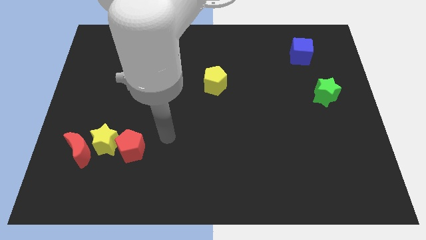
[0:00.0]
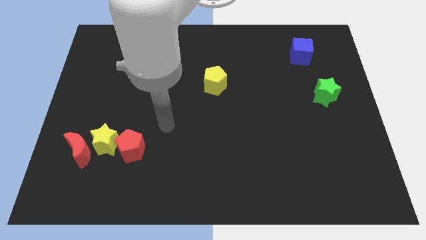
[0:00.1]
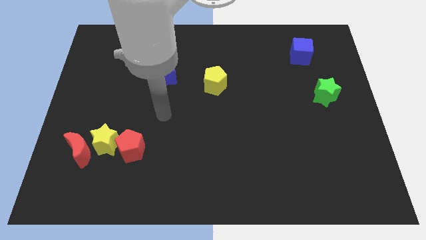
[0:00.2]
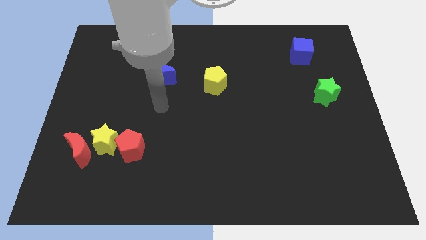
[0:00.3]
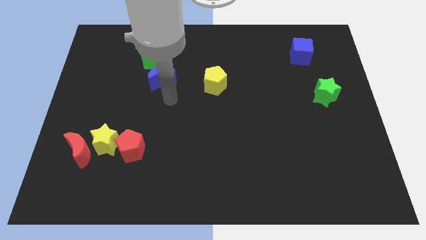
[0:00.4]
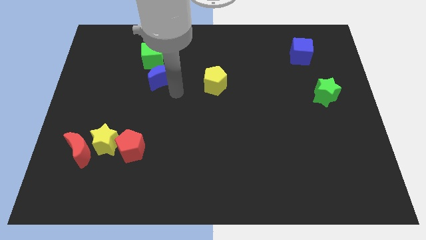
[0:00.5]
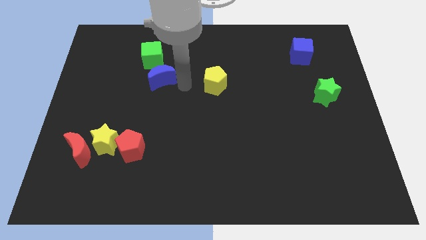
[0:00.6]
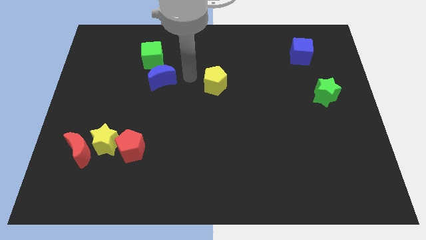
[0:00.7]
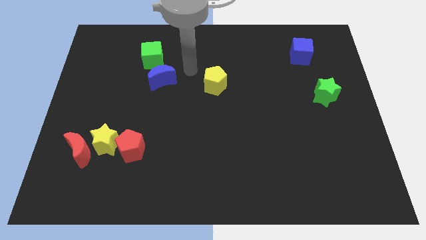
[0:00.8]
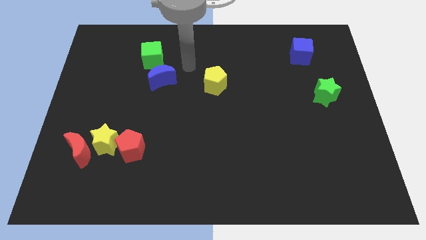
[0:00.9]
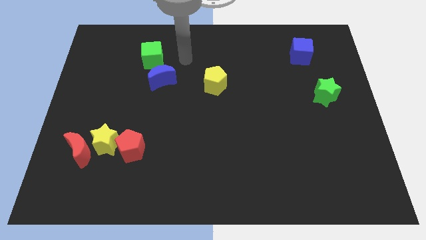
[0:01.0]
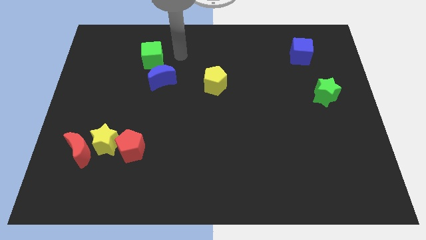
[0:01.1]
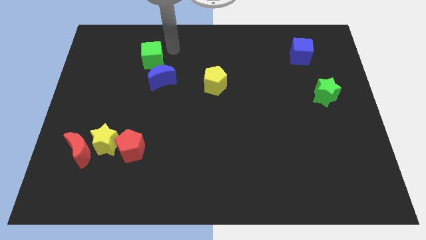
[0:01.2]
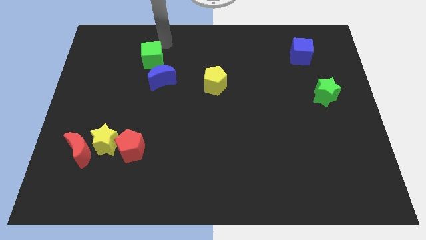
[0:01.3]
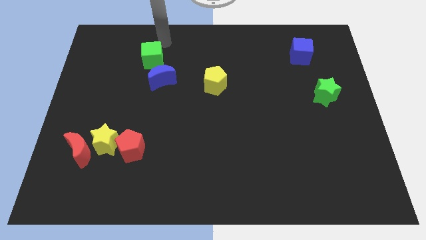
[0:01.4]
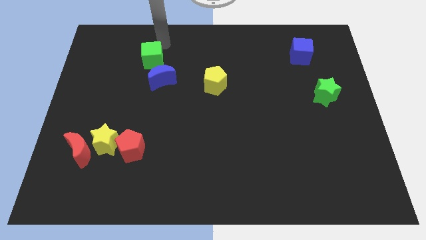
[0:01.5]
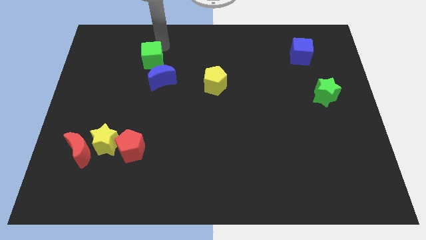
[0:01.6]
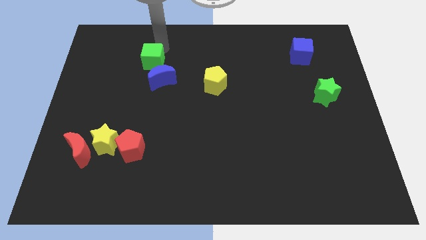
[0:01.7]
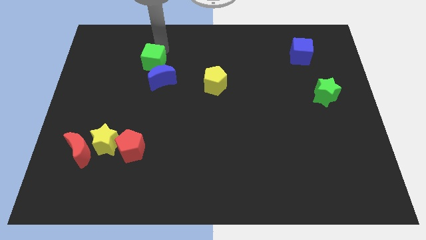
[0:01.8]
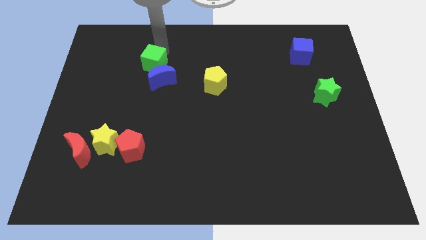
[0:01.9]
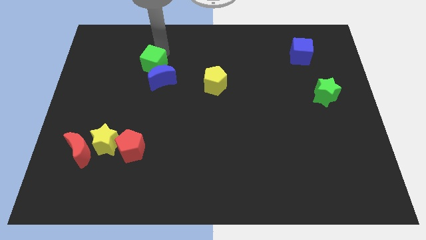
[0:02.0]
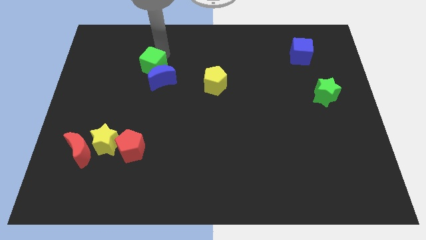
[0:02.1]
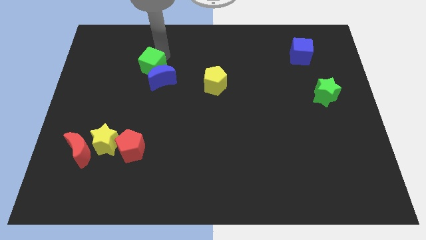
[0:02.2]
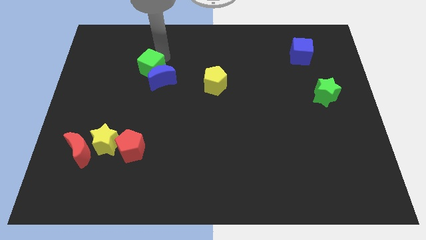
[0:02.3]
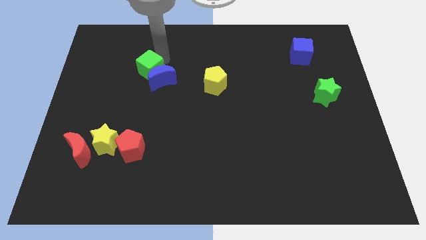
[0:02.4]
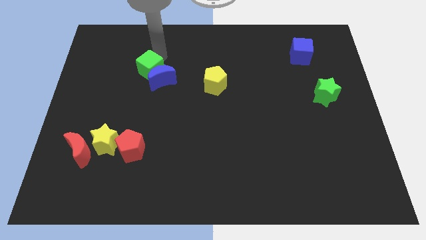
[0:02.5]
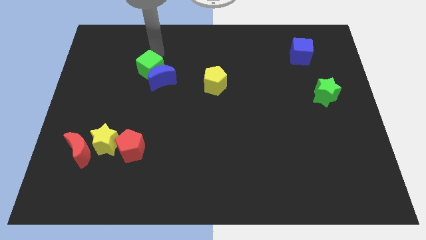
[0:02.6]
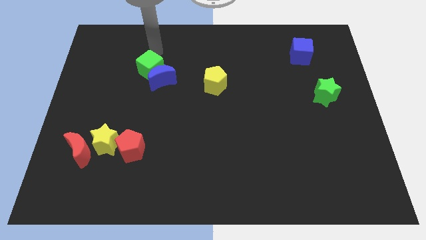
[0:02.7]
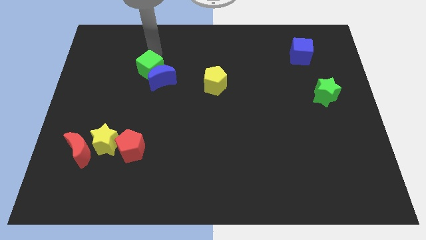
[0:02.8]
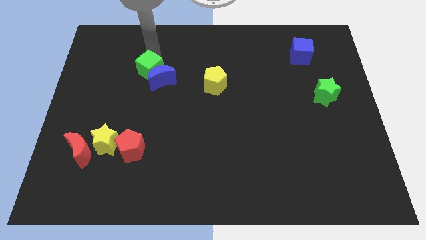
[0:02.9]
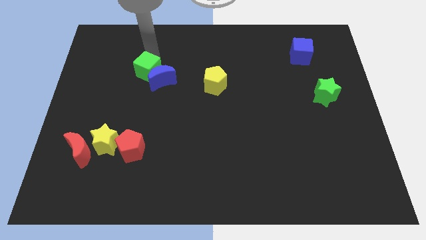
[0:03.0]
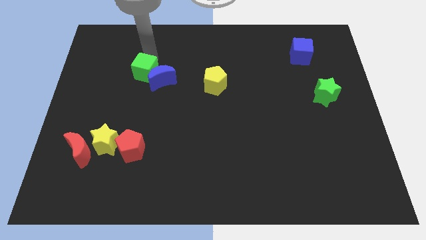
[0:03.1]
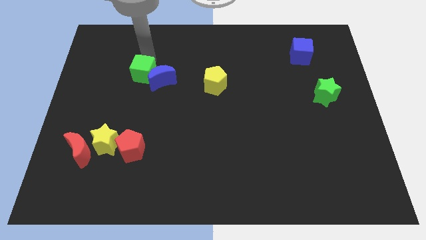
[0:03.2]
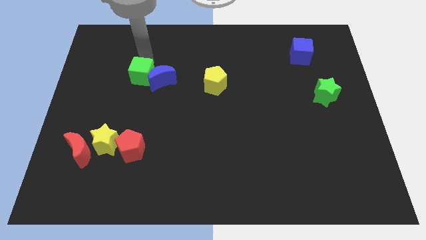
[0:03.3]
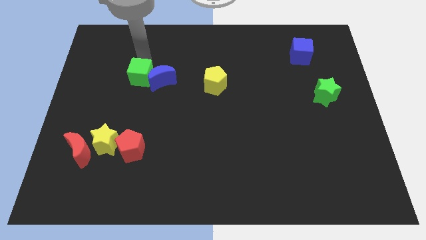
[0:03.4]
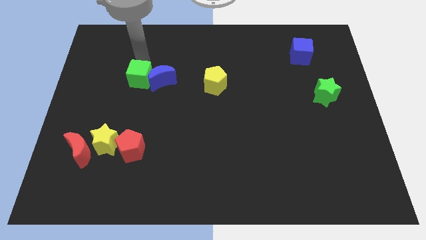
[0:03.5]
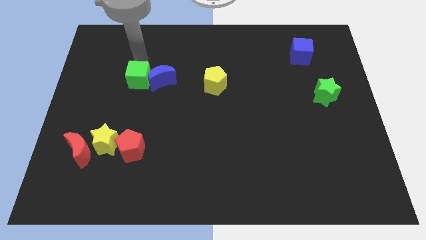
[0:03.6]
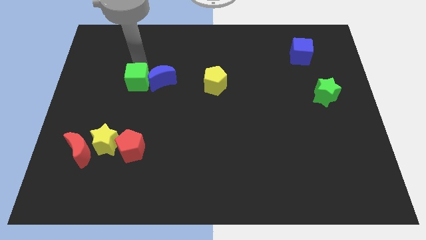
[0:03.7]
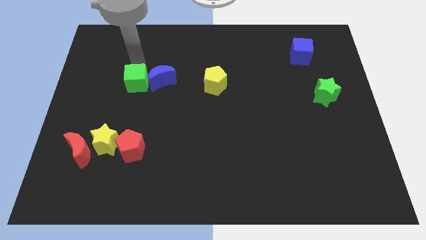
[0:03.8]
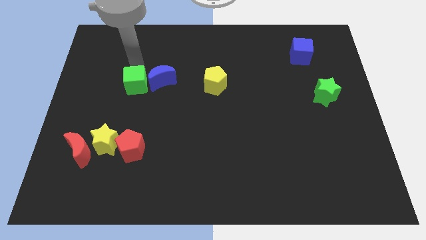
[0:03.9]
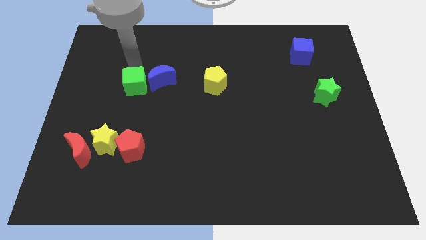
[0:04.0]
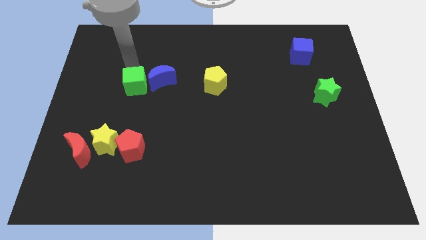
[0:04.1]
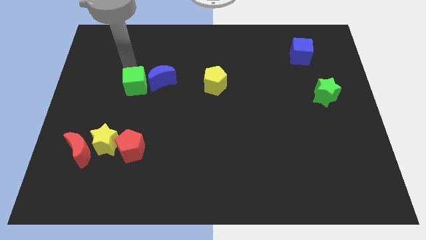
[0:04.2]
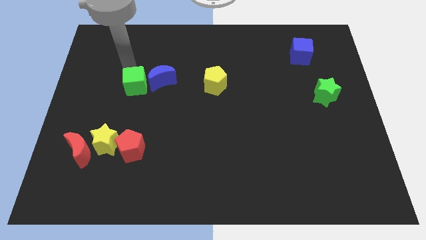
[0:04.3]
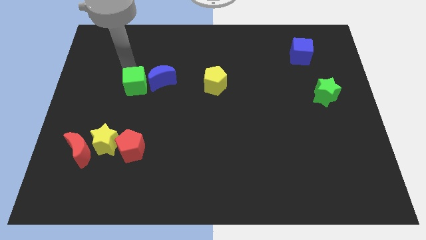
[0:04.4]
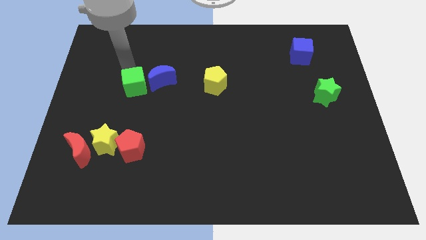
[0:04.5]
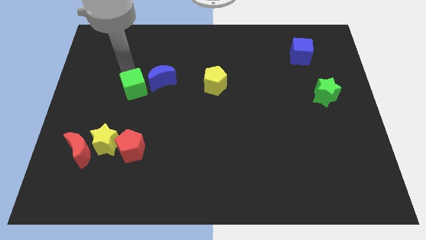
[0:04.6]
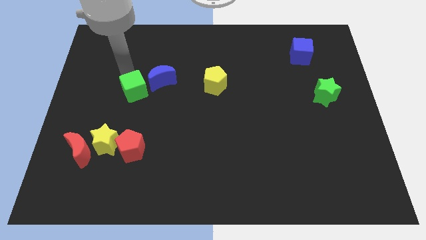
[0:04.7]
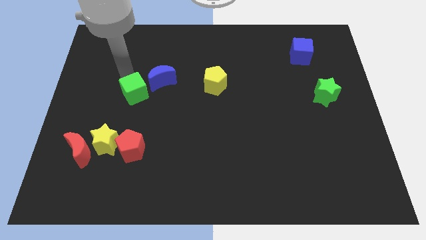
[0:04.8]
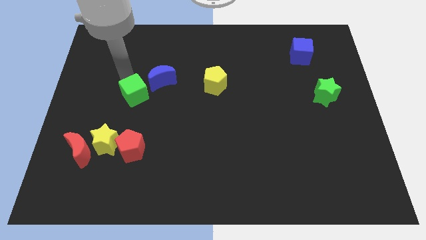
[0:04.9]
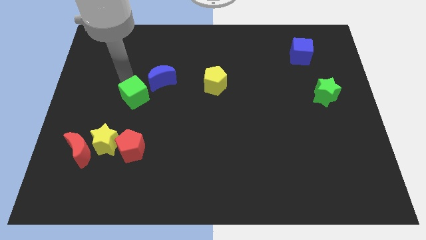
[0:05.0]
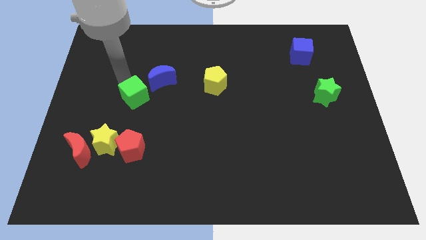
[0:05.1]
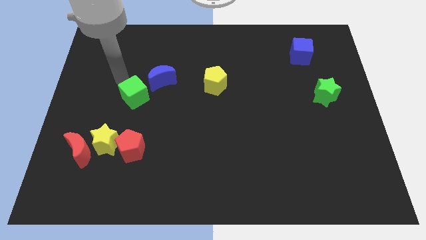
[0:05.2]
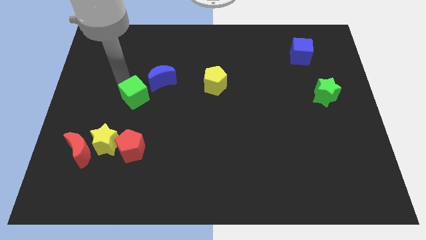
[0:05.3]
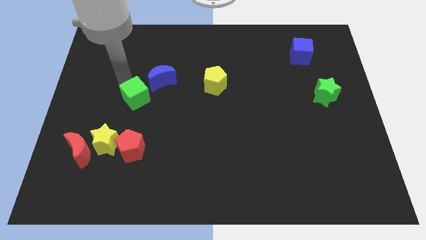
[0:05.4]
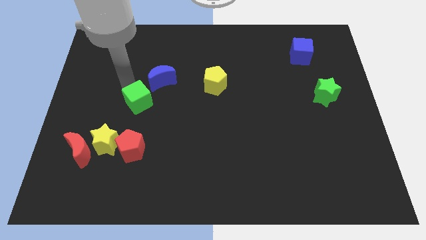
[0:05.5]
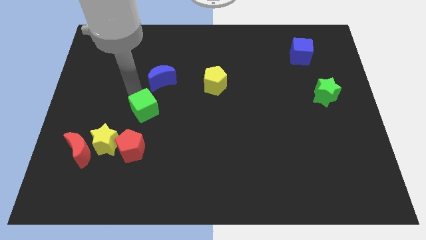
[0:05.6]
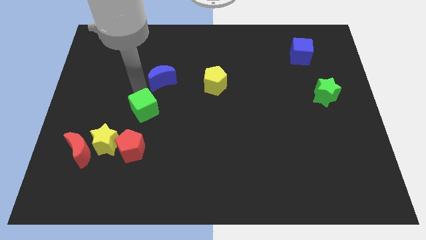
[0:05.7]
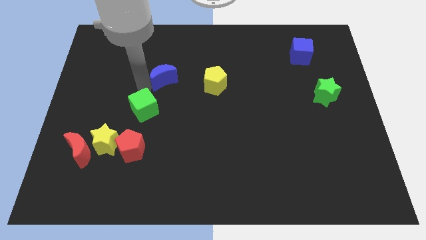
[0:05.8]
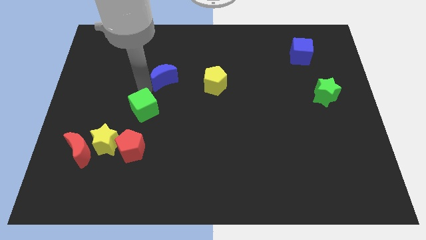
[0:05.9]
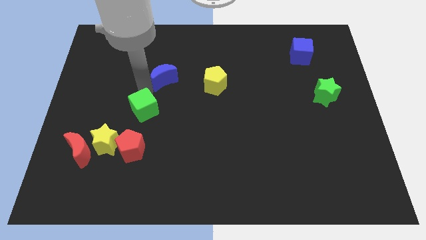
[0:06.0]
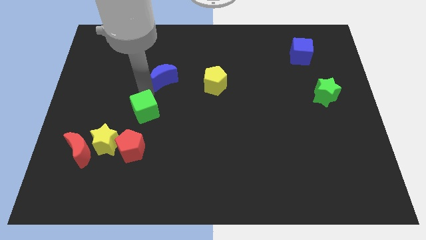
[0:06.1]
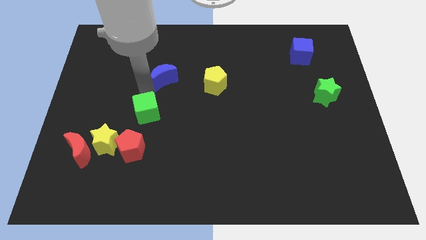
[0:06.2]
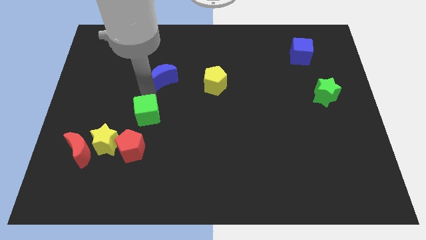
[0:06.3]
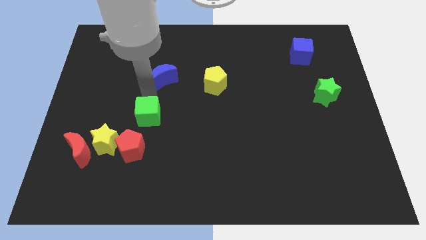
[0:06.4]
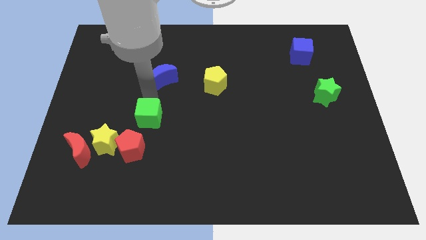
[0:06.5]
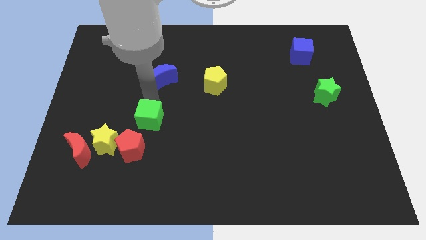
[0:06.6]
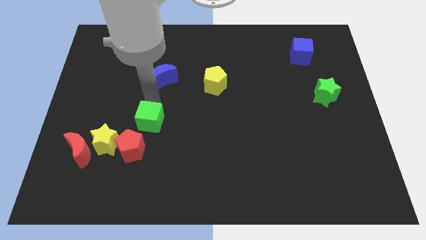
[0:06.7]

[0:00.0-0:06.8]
push the green cube down

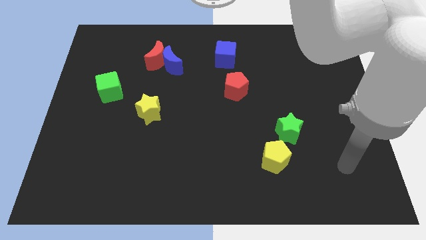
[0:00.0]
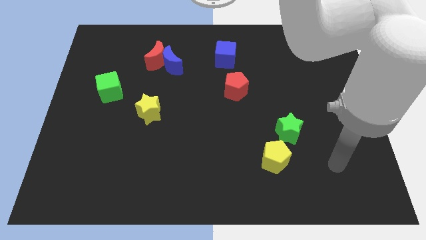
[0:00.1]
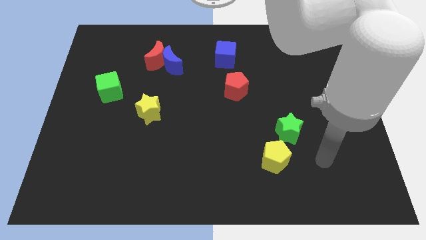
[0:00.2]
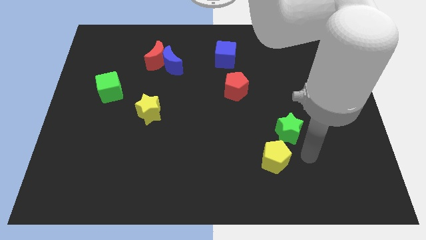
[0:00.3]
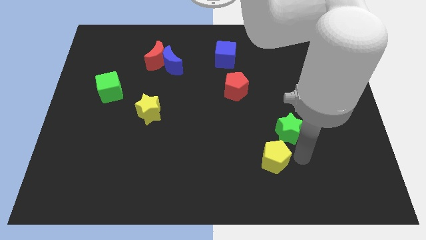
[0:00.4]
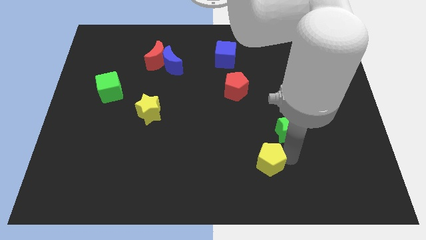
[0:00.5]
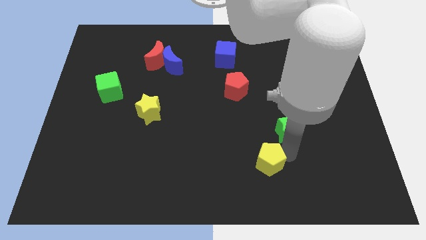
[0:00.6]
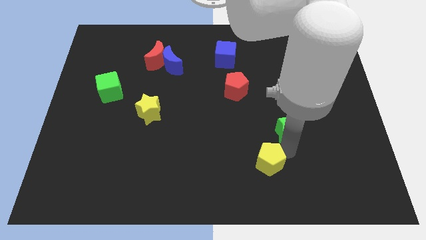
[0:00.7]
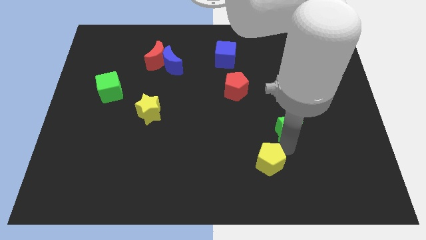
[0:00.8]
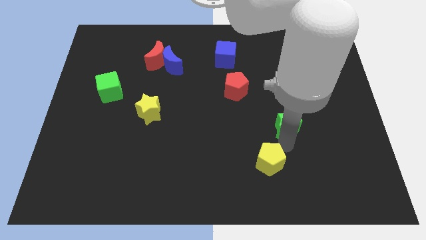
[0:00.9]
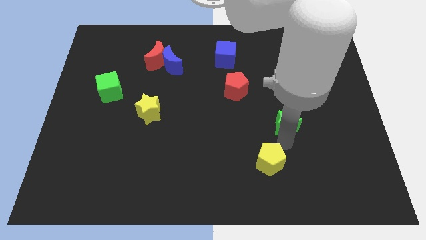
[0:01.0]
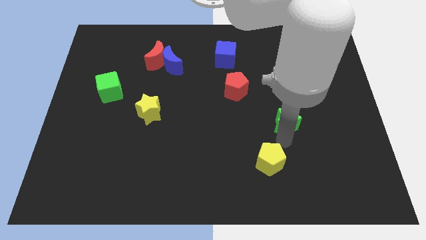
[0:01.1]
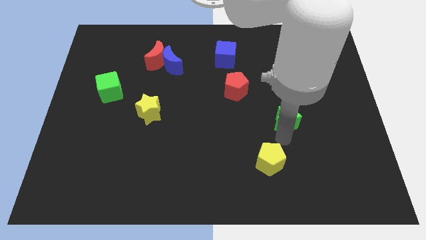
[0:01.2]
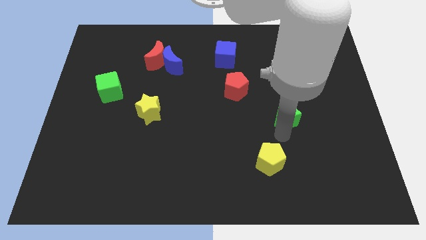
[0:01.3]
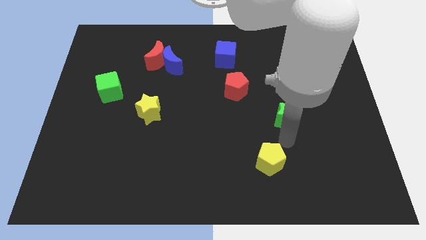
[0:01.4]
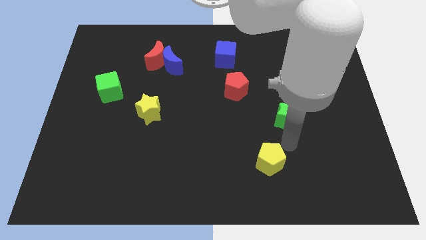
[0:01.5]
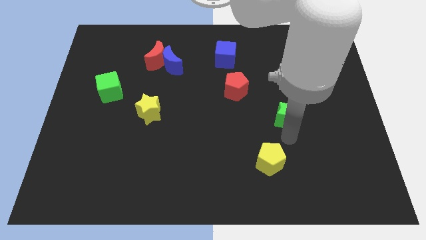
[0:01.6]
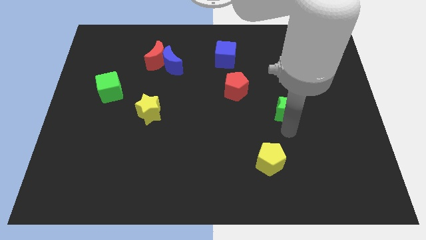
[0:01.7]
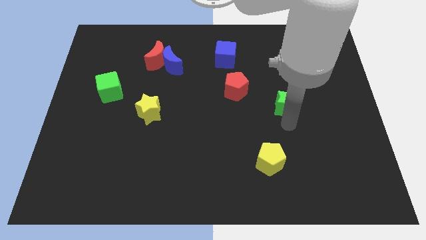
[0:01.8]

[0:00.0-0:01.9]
move the green star upwards a bit
